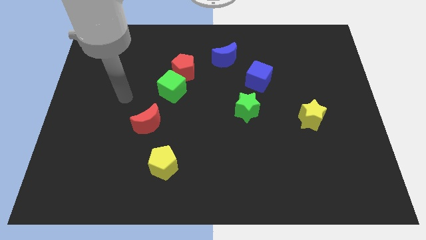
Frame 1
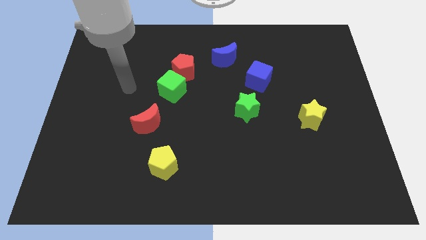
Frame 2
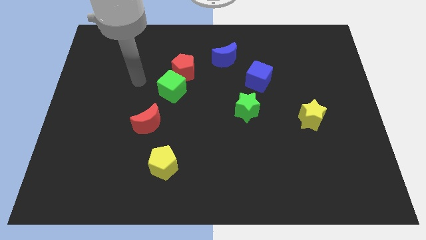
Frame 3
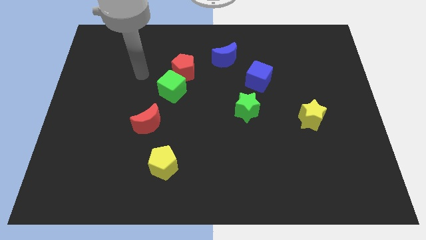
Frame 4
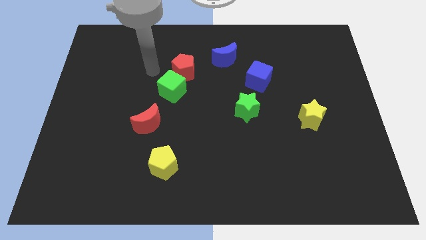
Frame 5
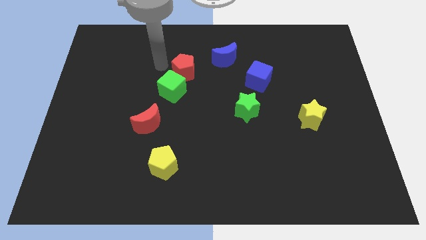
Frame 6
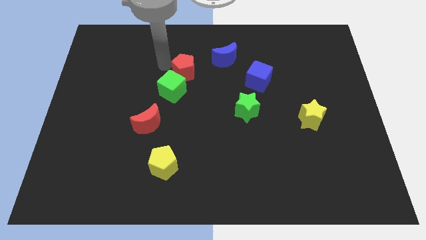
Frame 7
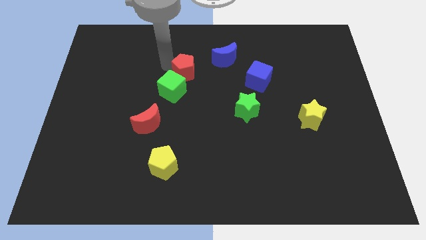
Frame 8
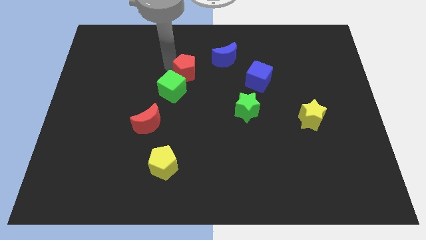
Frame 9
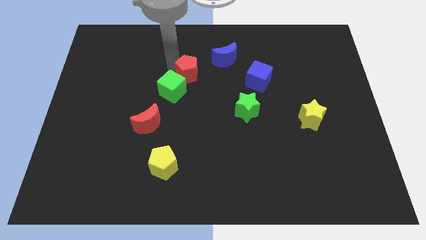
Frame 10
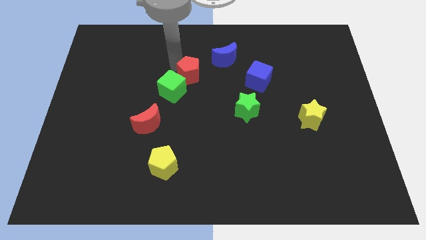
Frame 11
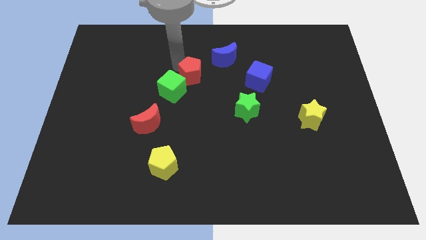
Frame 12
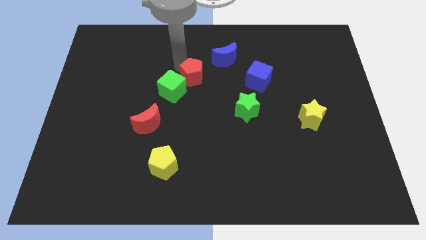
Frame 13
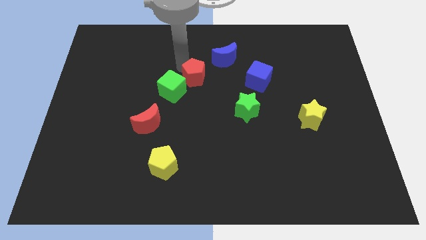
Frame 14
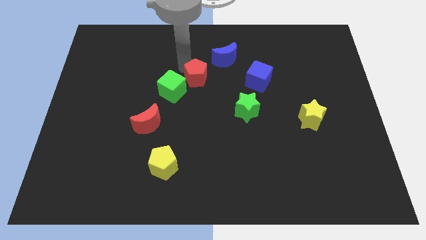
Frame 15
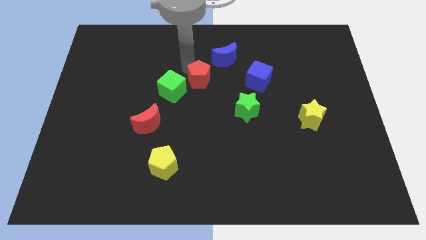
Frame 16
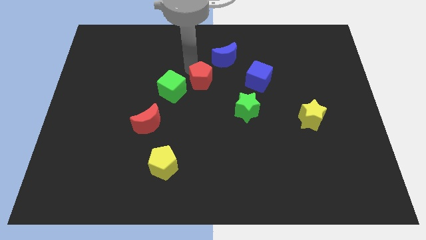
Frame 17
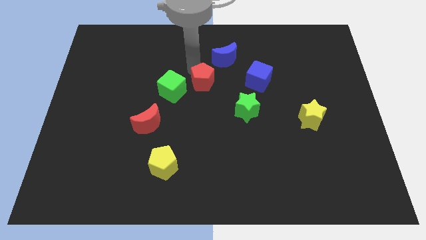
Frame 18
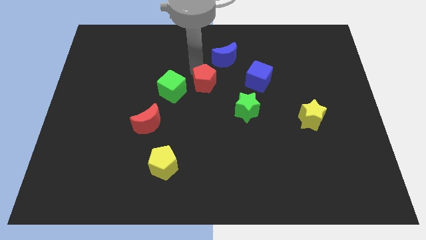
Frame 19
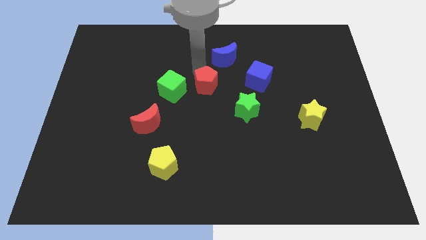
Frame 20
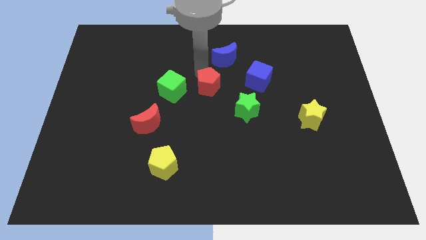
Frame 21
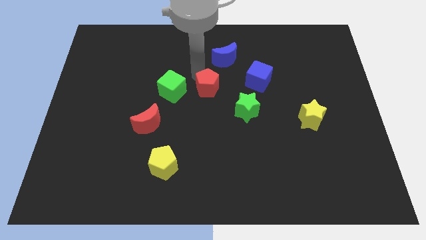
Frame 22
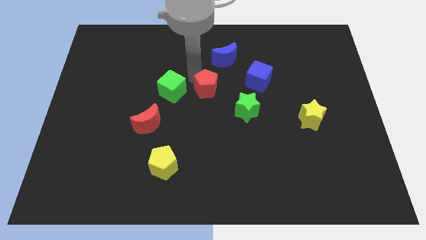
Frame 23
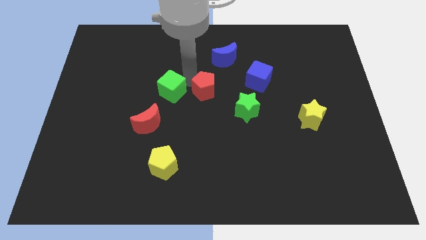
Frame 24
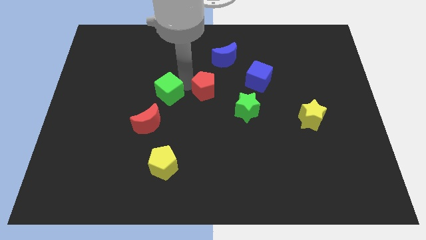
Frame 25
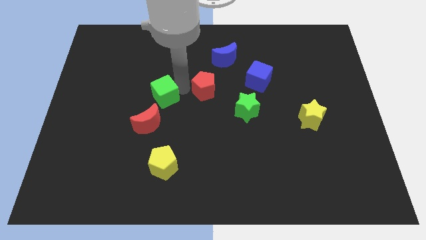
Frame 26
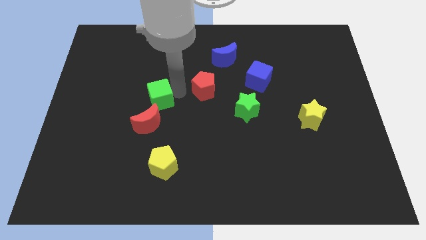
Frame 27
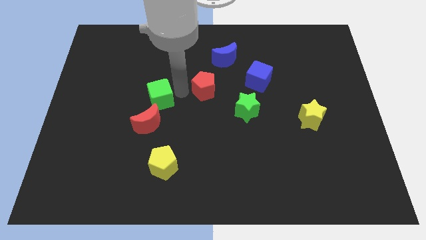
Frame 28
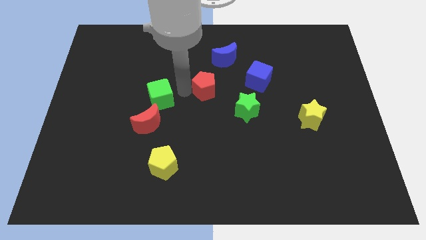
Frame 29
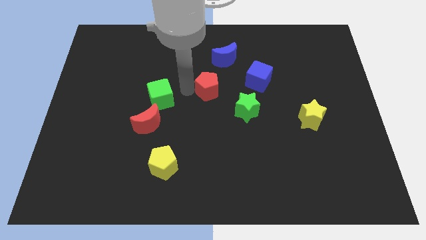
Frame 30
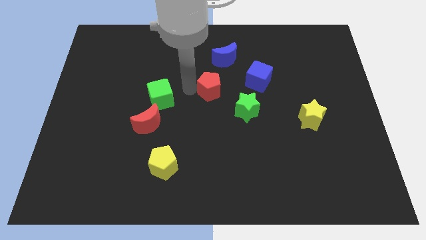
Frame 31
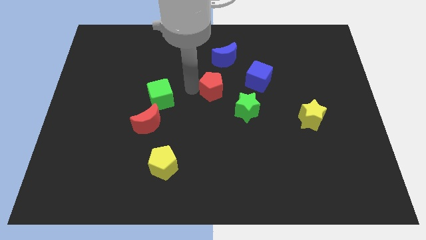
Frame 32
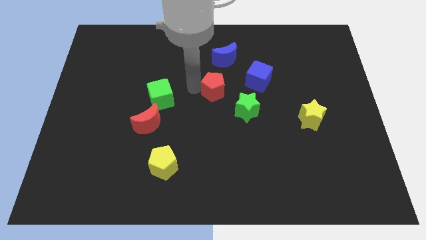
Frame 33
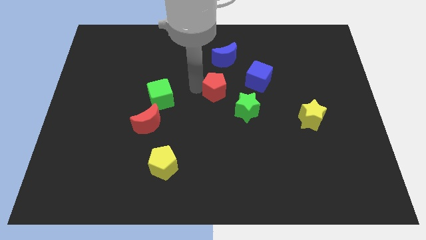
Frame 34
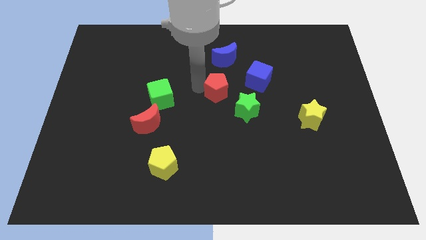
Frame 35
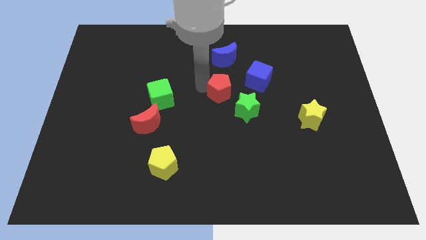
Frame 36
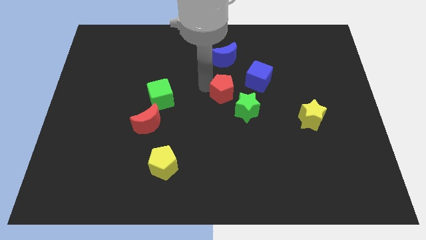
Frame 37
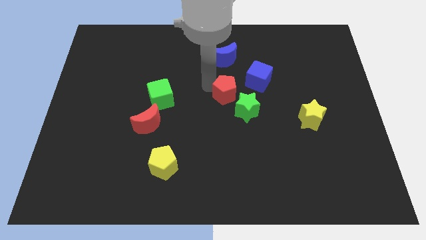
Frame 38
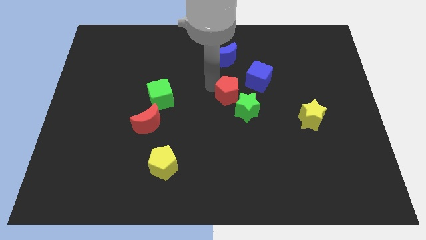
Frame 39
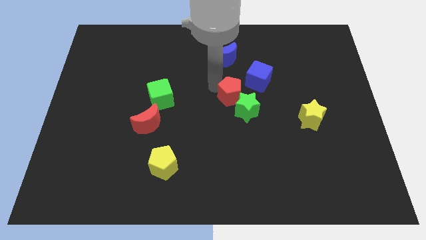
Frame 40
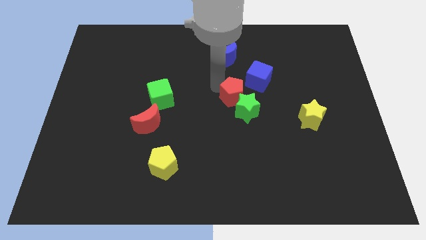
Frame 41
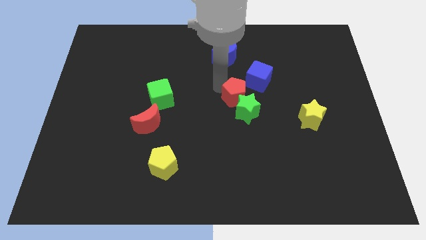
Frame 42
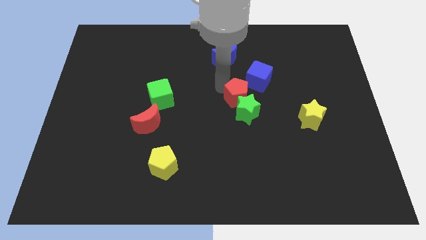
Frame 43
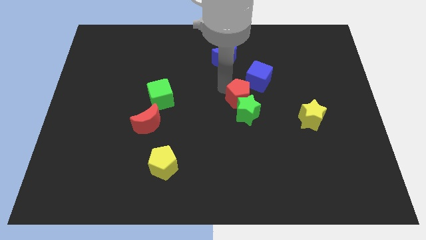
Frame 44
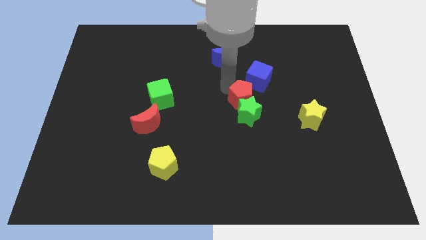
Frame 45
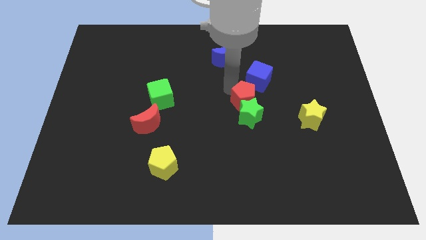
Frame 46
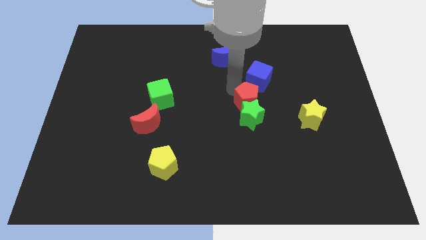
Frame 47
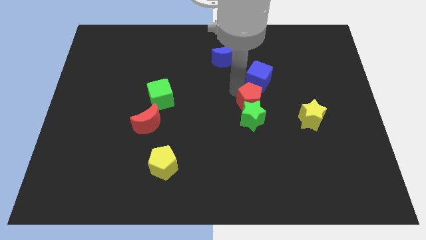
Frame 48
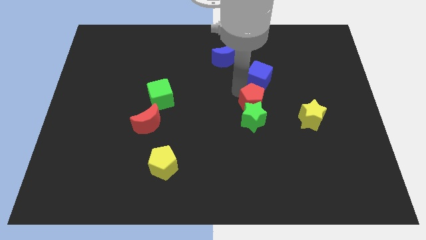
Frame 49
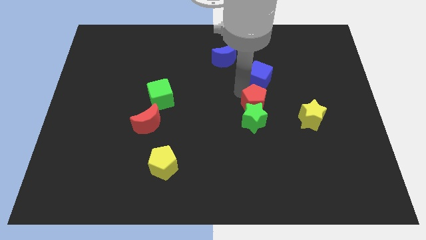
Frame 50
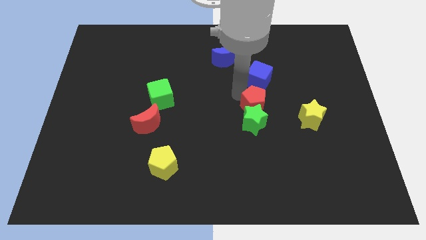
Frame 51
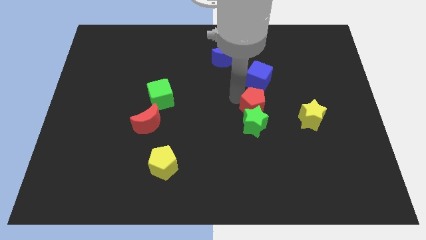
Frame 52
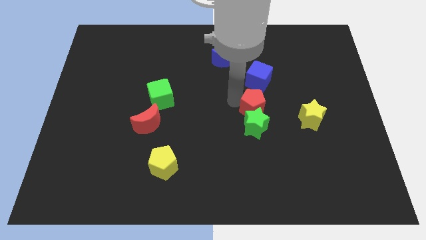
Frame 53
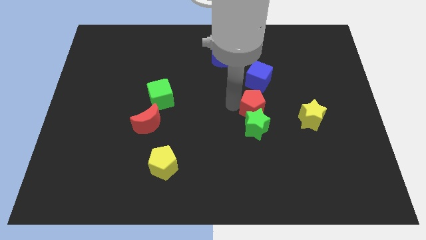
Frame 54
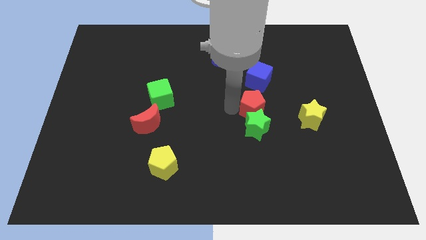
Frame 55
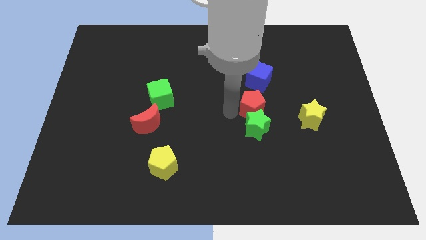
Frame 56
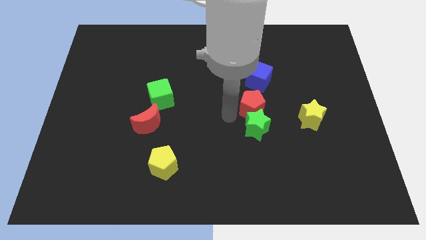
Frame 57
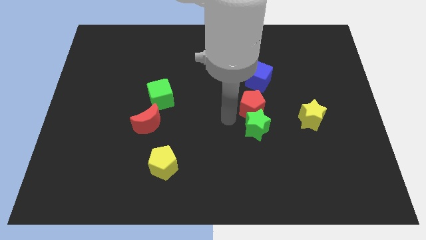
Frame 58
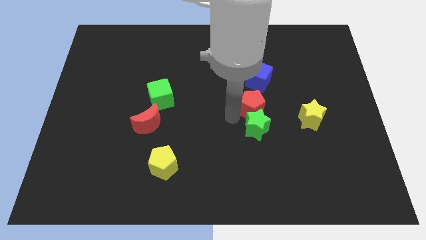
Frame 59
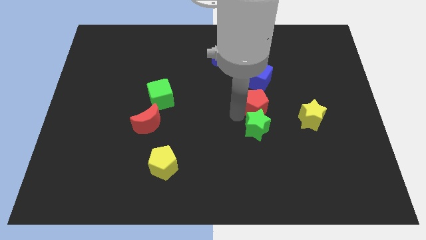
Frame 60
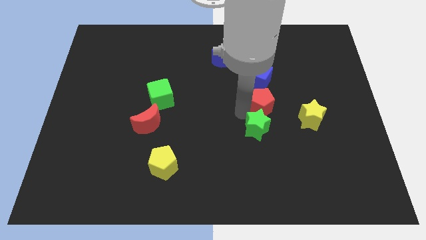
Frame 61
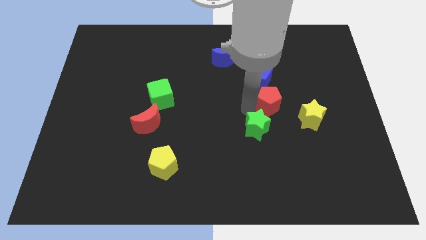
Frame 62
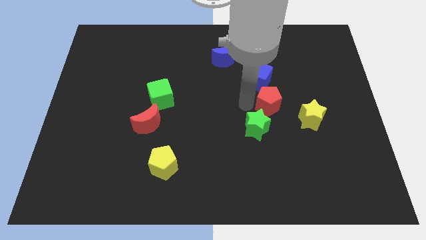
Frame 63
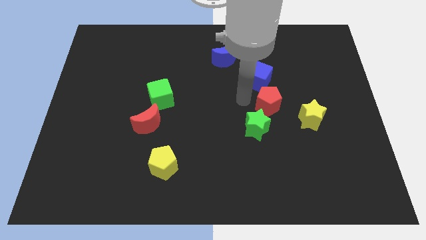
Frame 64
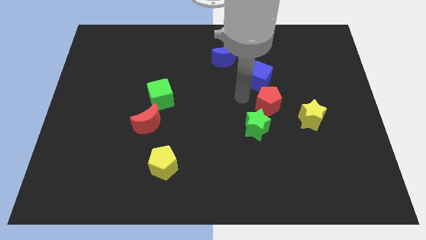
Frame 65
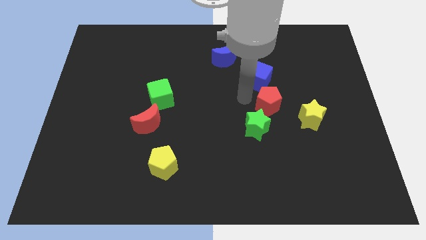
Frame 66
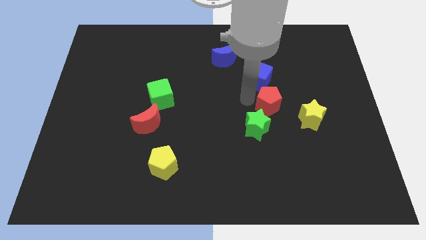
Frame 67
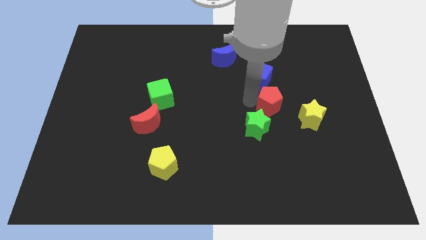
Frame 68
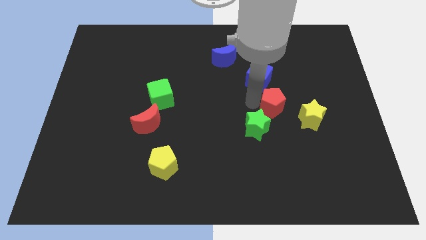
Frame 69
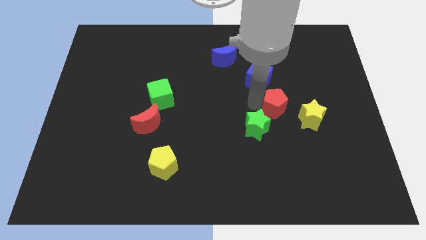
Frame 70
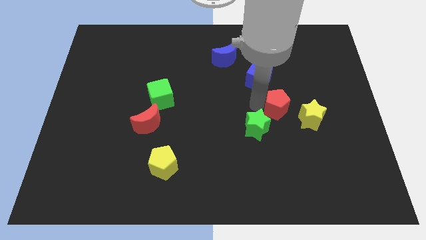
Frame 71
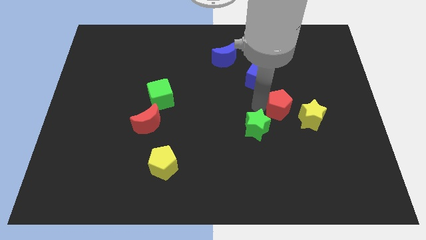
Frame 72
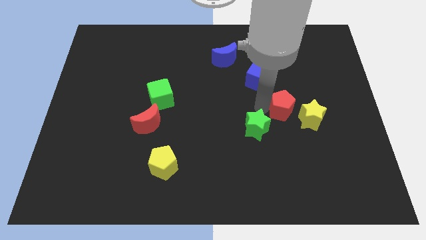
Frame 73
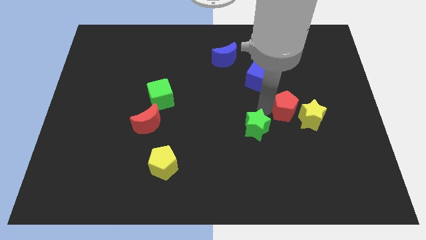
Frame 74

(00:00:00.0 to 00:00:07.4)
put the red pentagon close to the yellow star
